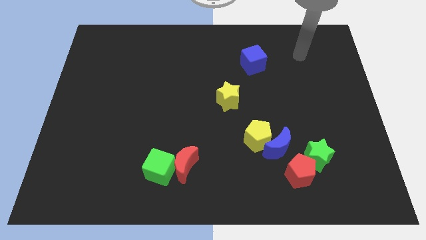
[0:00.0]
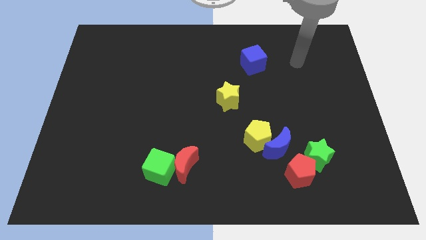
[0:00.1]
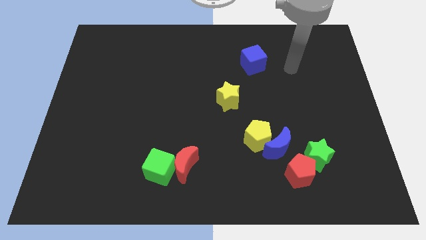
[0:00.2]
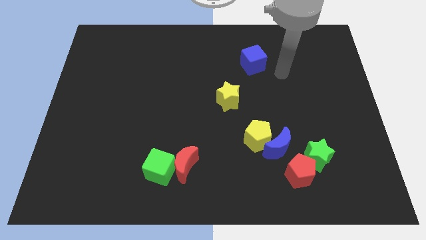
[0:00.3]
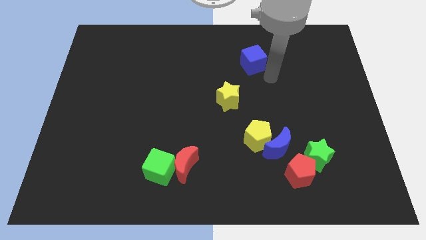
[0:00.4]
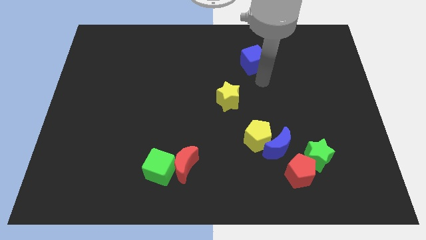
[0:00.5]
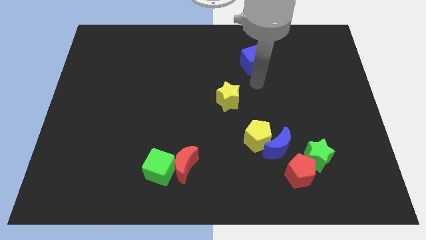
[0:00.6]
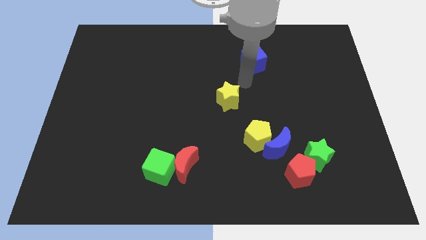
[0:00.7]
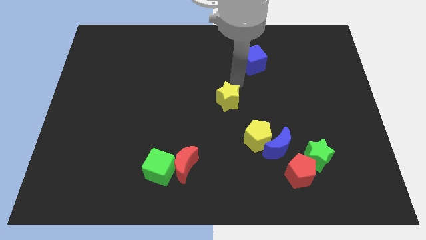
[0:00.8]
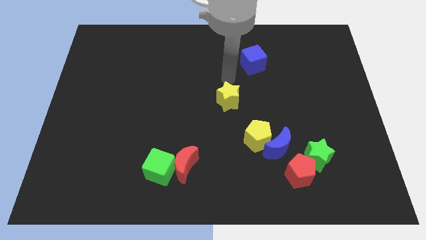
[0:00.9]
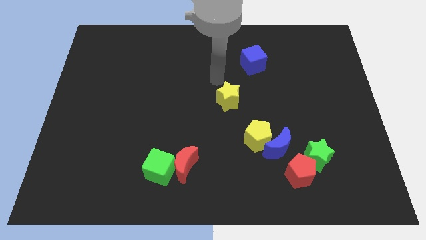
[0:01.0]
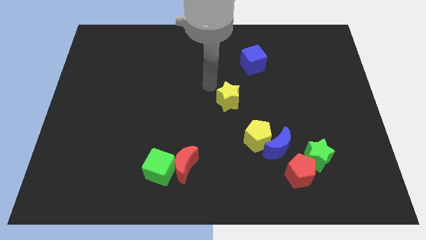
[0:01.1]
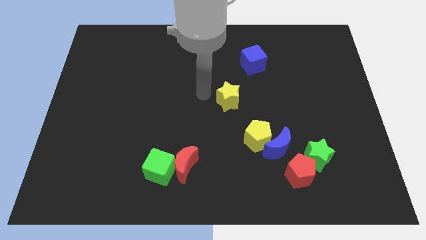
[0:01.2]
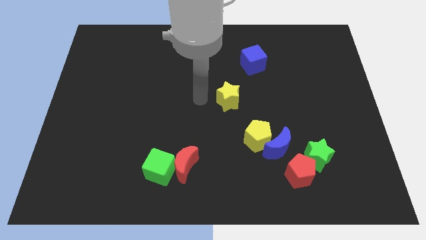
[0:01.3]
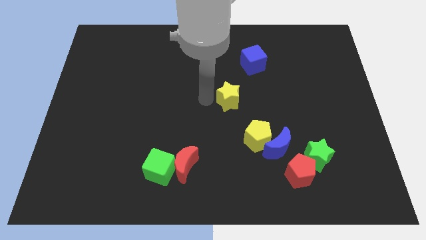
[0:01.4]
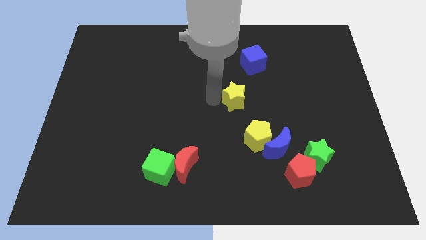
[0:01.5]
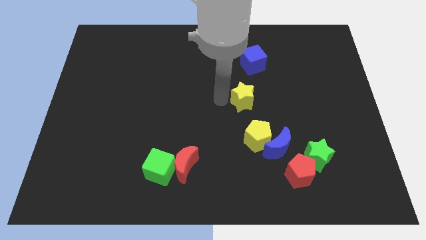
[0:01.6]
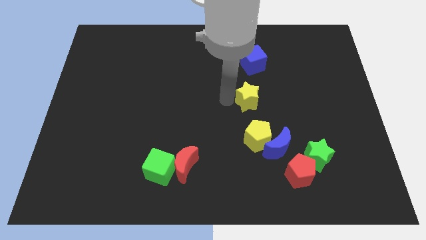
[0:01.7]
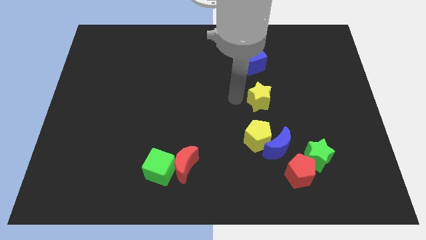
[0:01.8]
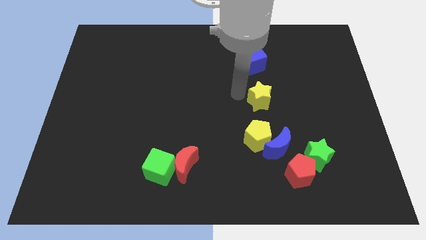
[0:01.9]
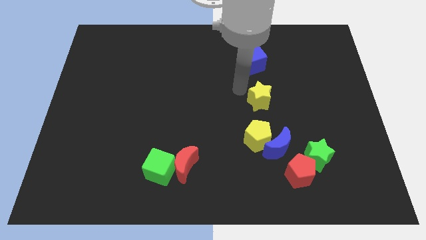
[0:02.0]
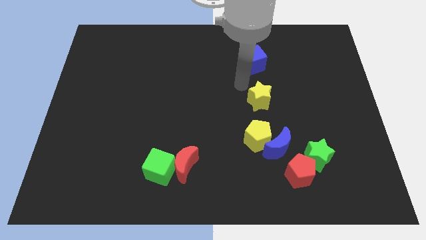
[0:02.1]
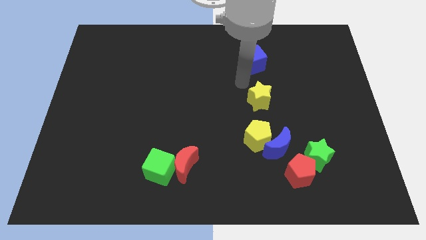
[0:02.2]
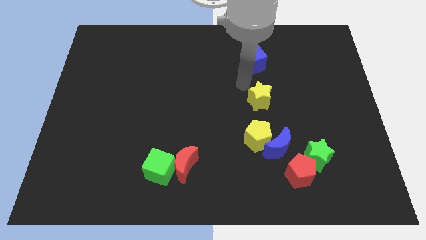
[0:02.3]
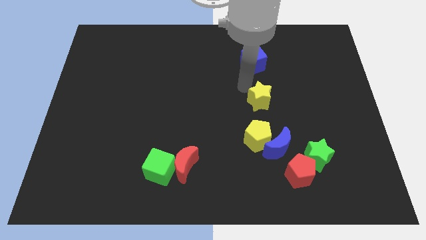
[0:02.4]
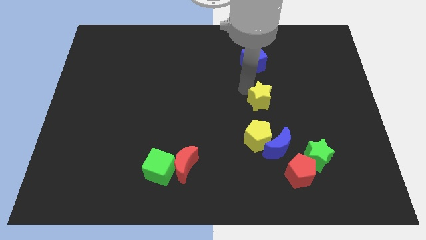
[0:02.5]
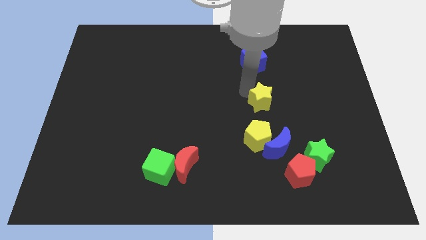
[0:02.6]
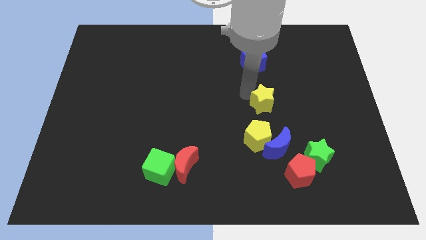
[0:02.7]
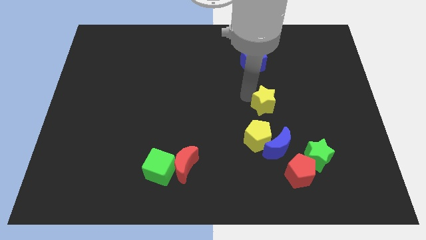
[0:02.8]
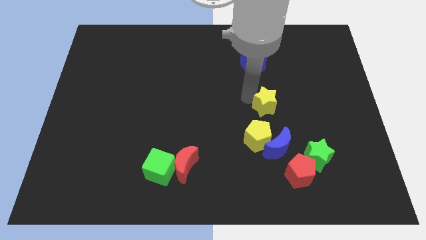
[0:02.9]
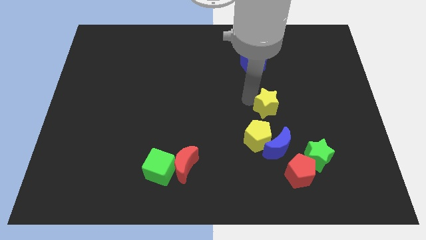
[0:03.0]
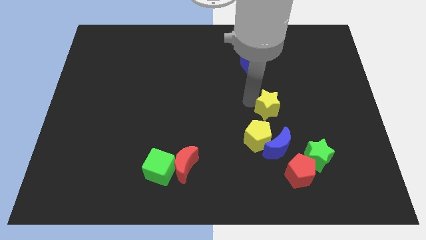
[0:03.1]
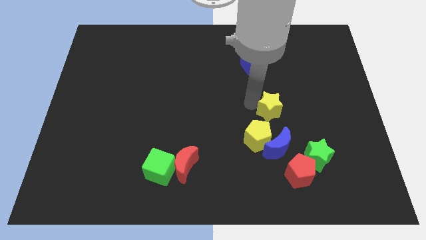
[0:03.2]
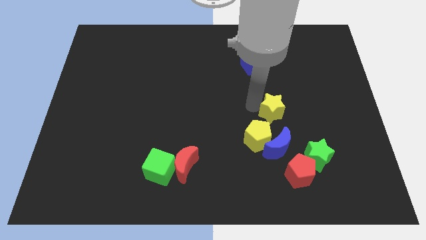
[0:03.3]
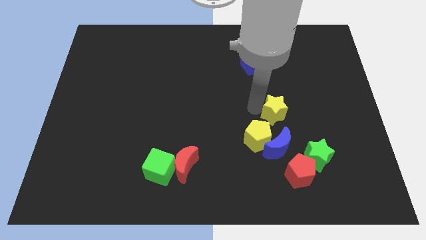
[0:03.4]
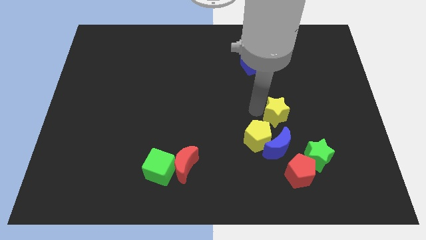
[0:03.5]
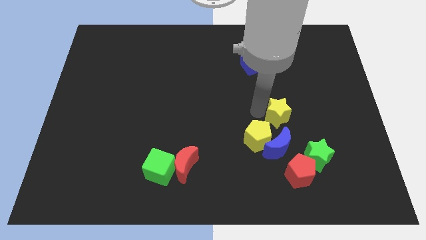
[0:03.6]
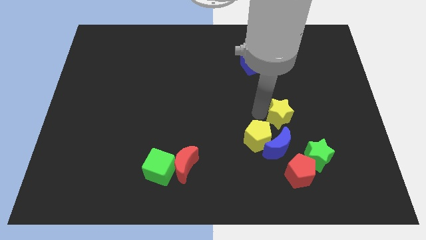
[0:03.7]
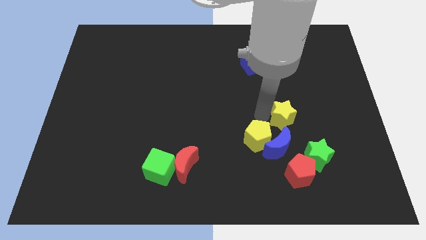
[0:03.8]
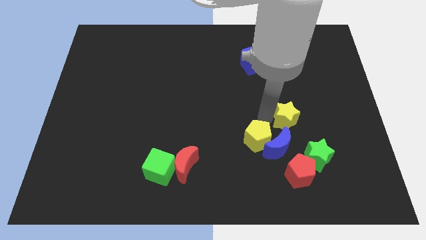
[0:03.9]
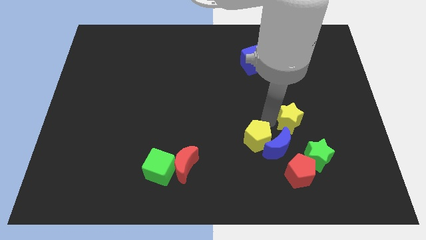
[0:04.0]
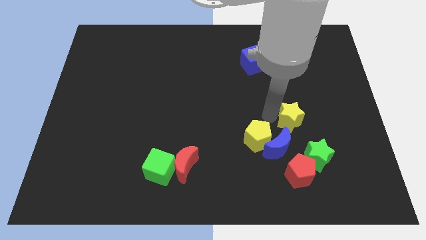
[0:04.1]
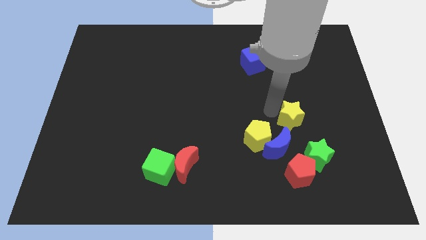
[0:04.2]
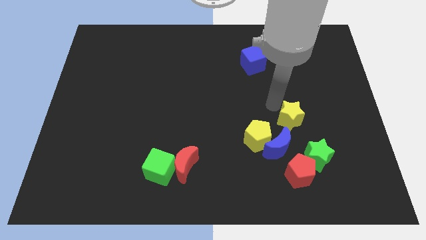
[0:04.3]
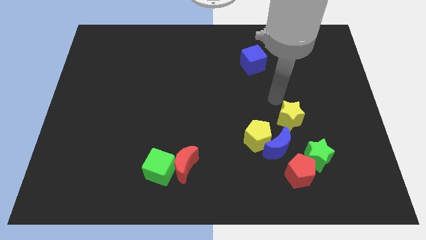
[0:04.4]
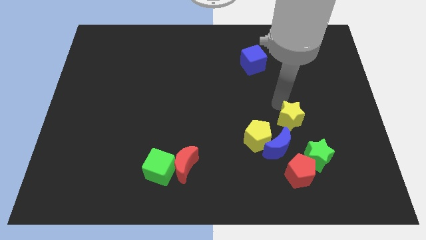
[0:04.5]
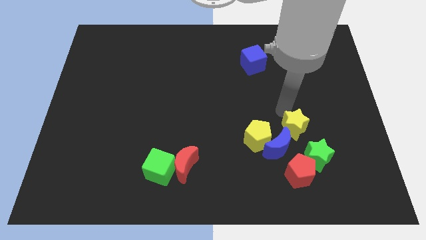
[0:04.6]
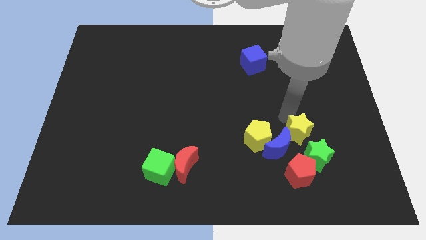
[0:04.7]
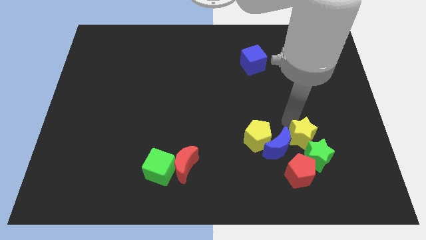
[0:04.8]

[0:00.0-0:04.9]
slide the yellow star towards the green star

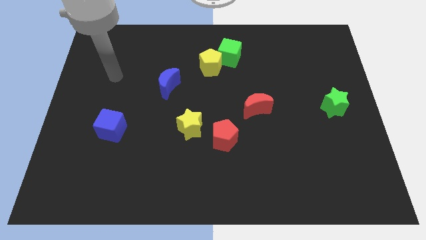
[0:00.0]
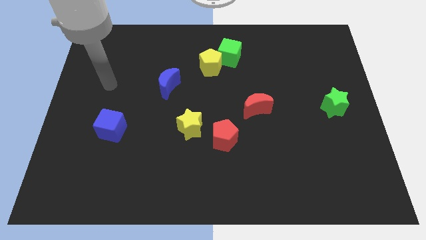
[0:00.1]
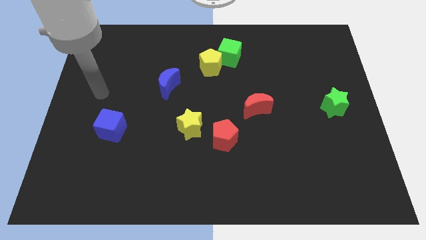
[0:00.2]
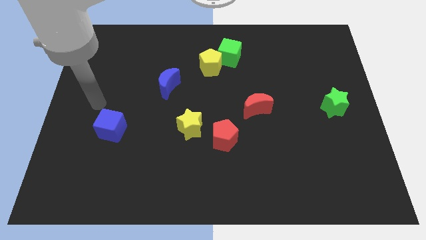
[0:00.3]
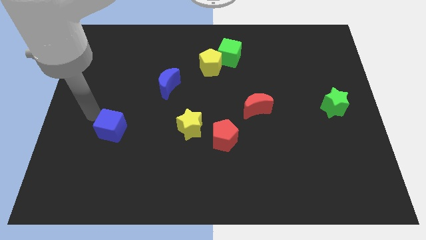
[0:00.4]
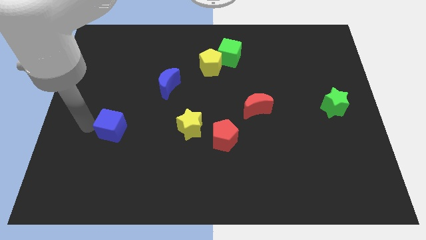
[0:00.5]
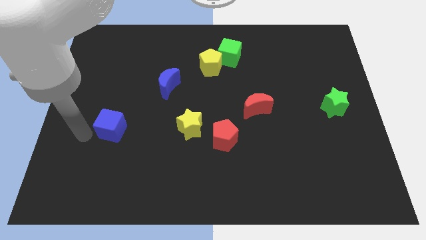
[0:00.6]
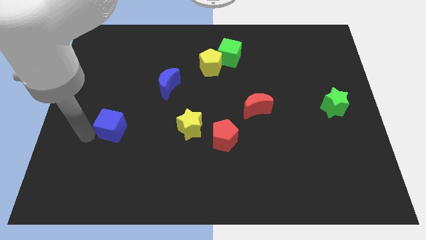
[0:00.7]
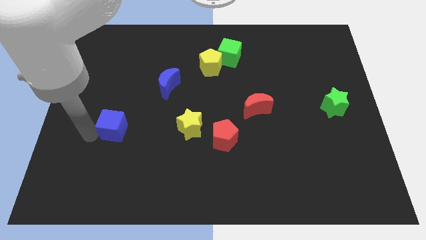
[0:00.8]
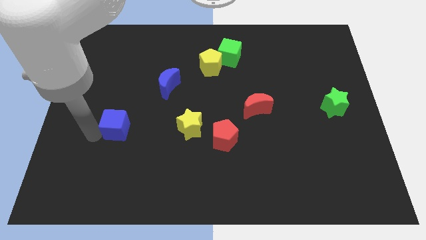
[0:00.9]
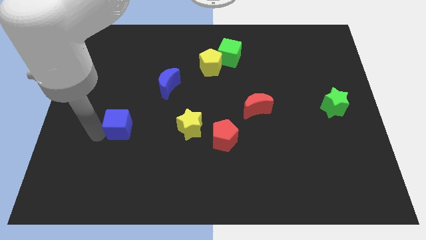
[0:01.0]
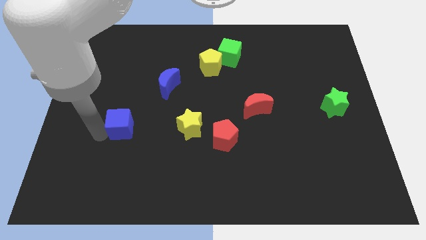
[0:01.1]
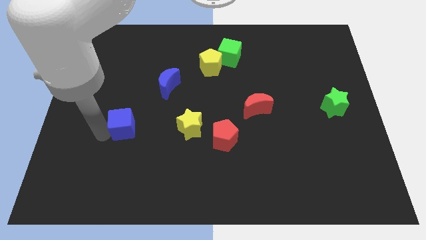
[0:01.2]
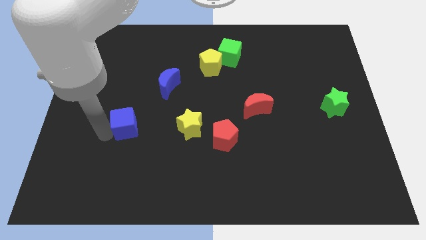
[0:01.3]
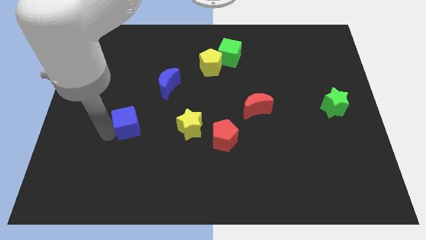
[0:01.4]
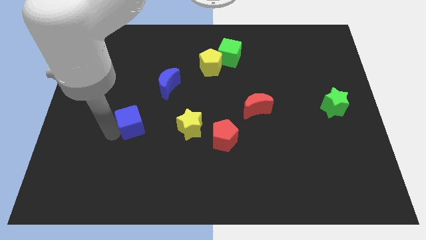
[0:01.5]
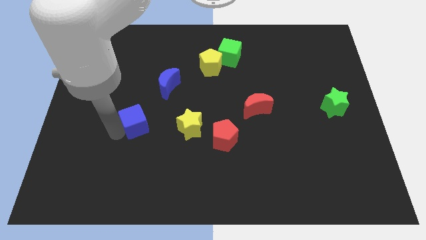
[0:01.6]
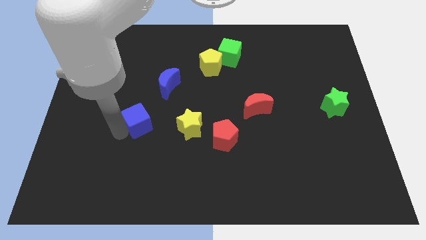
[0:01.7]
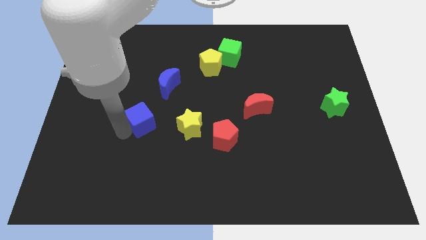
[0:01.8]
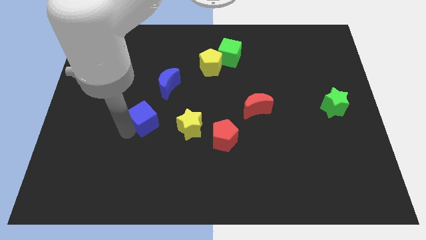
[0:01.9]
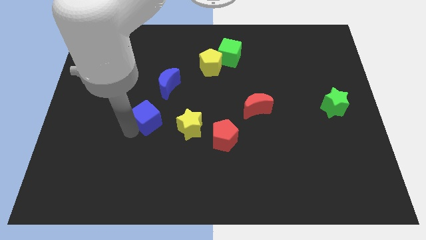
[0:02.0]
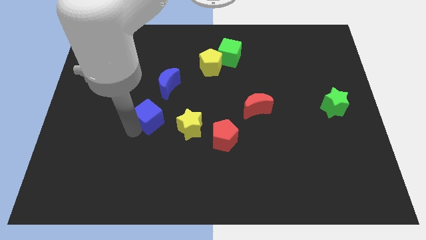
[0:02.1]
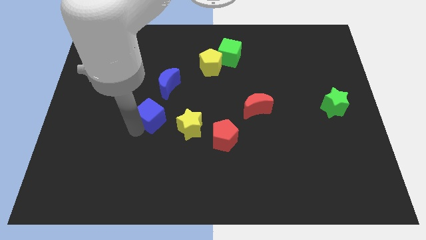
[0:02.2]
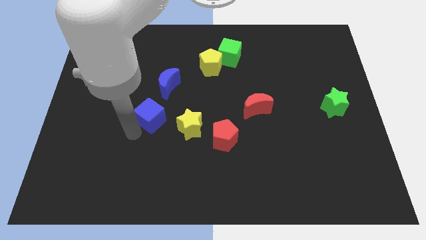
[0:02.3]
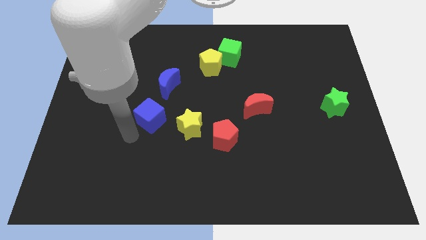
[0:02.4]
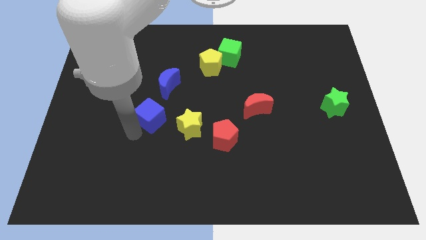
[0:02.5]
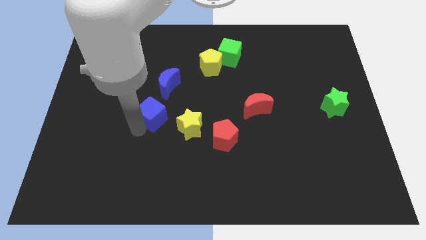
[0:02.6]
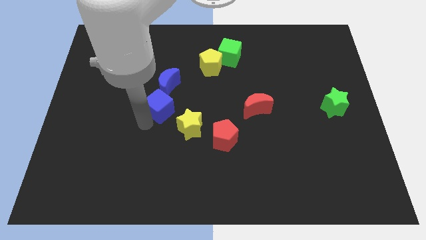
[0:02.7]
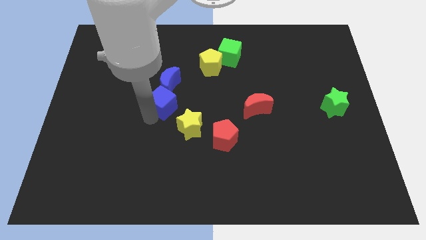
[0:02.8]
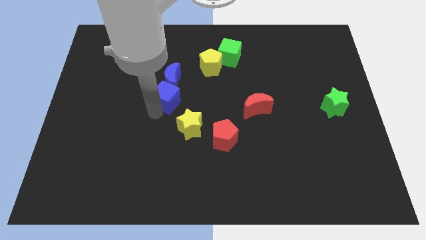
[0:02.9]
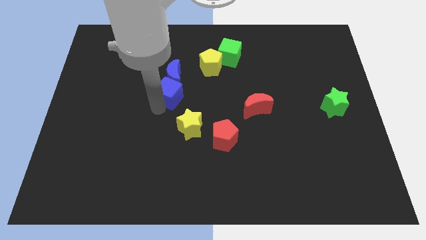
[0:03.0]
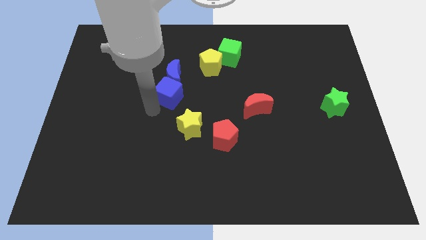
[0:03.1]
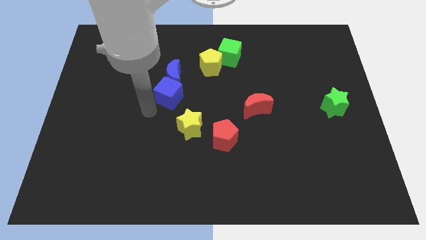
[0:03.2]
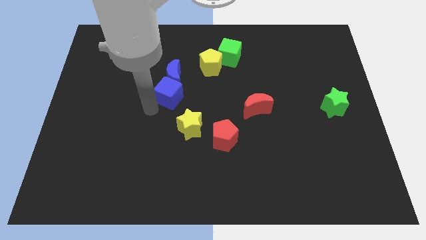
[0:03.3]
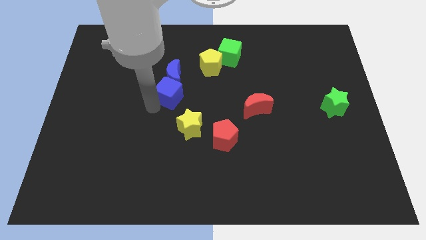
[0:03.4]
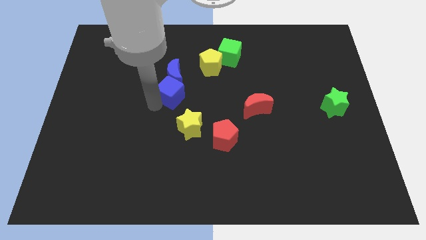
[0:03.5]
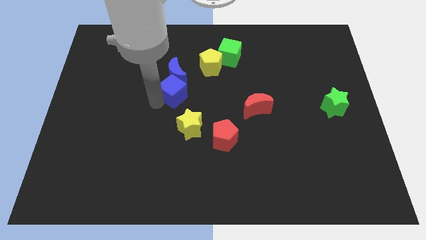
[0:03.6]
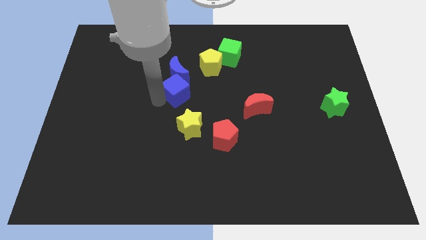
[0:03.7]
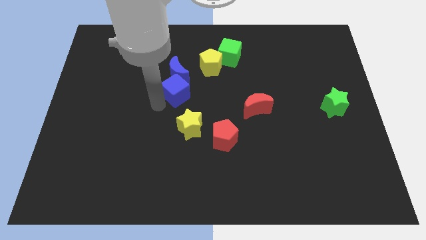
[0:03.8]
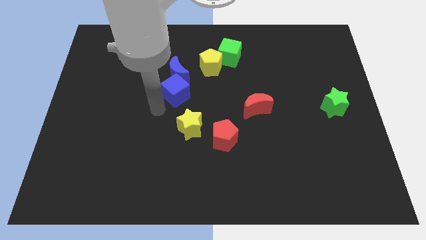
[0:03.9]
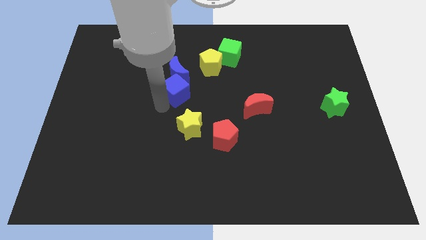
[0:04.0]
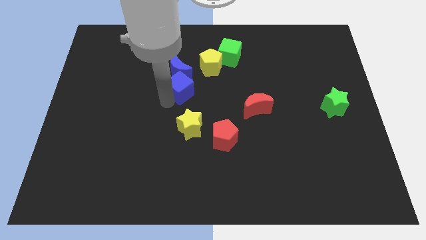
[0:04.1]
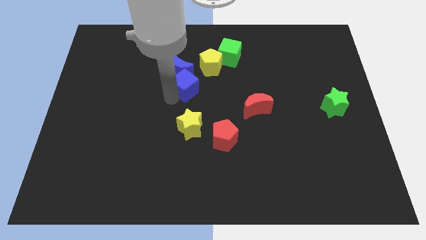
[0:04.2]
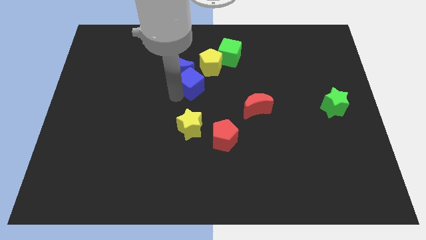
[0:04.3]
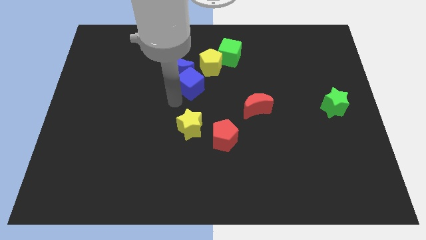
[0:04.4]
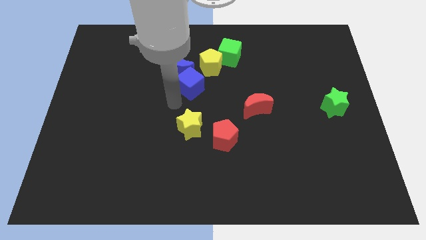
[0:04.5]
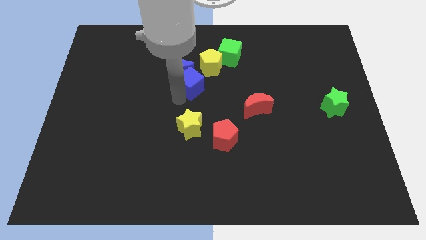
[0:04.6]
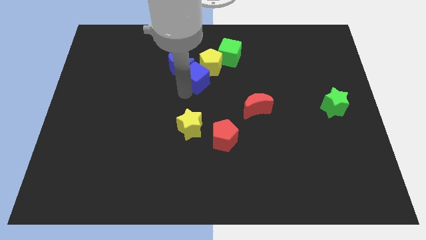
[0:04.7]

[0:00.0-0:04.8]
slide the blue cube next to the yellow pentagon
